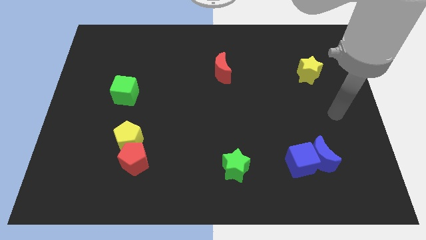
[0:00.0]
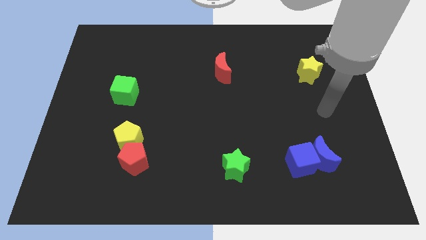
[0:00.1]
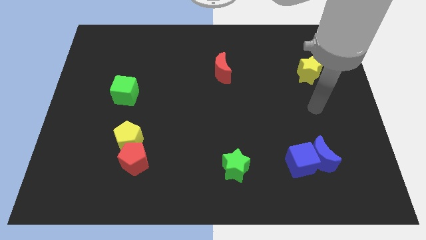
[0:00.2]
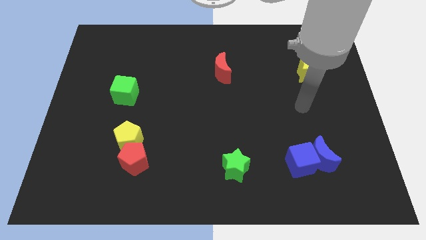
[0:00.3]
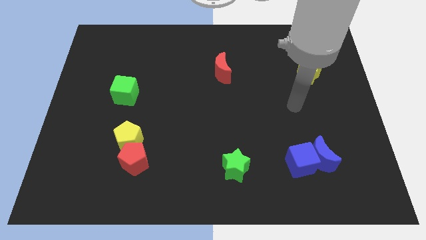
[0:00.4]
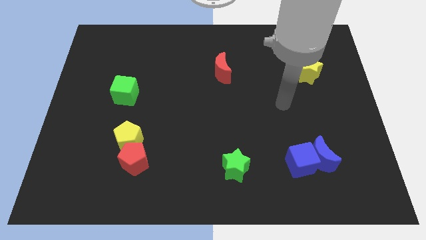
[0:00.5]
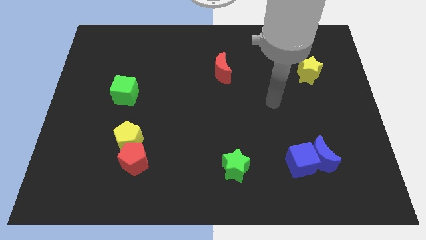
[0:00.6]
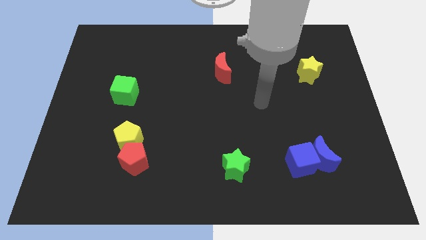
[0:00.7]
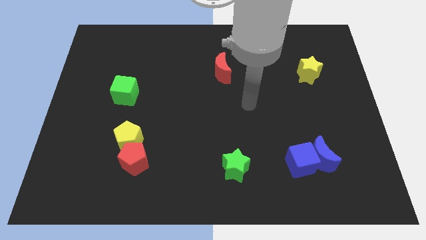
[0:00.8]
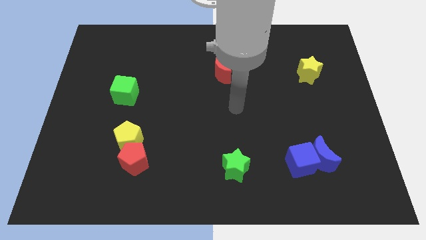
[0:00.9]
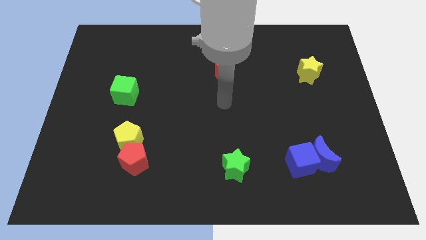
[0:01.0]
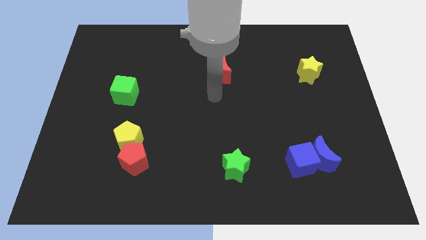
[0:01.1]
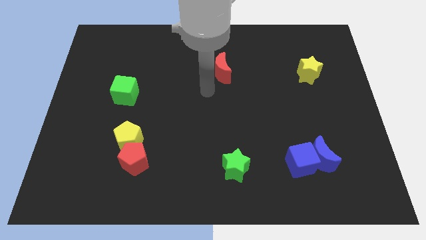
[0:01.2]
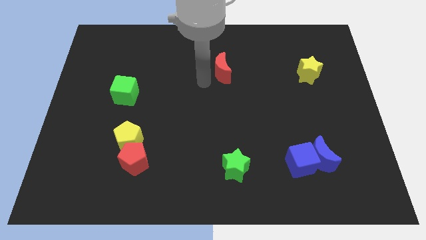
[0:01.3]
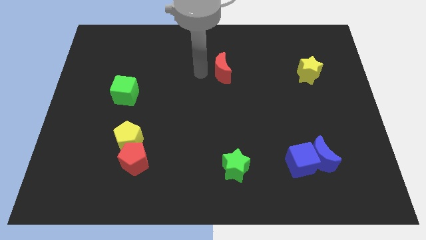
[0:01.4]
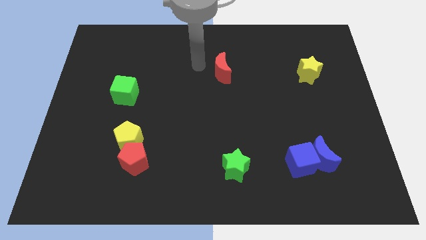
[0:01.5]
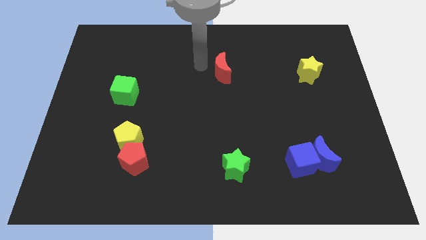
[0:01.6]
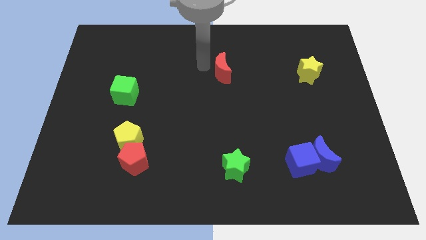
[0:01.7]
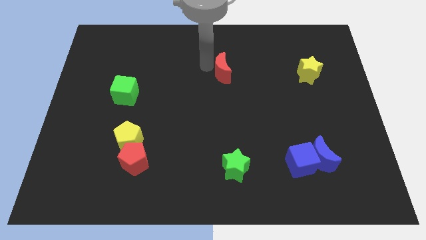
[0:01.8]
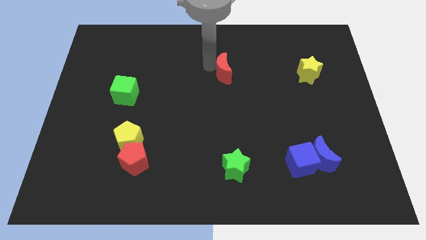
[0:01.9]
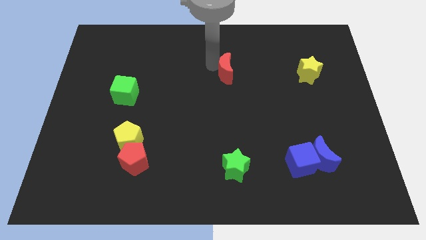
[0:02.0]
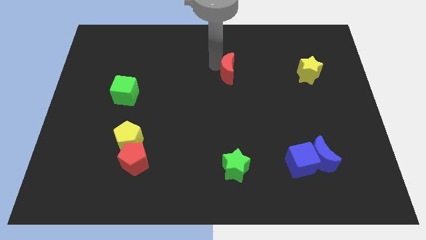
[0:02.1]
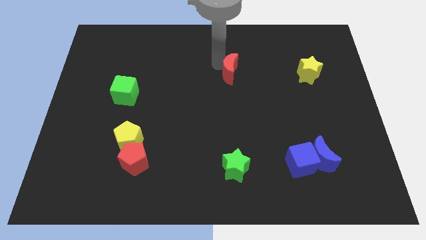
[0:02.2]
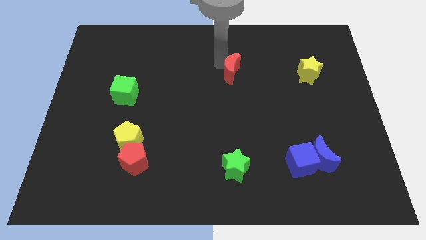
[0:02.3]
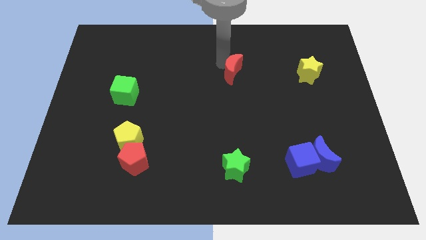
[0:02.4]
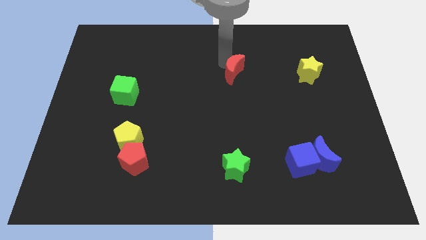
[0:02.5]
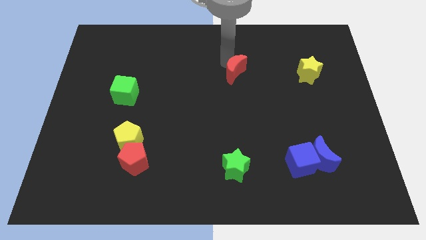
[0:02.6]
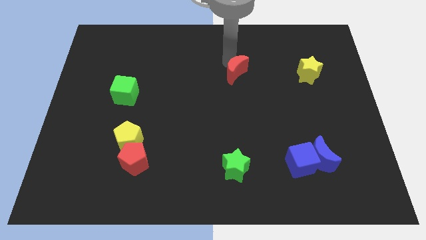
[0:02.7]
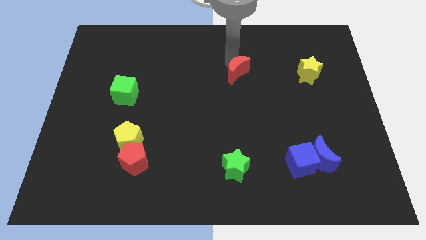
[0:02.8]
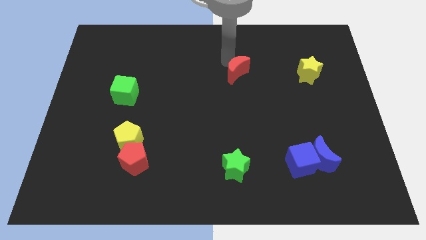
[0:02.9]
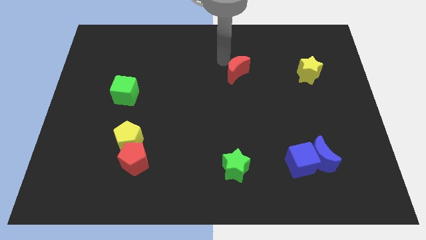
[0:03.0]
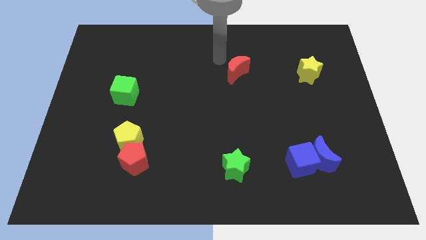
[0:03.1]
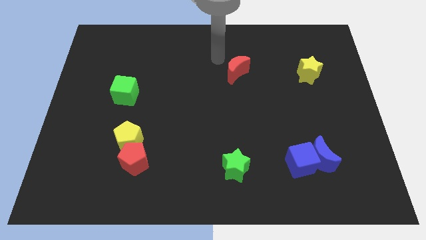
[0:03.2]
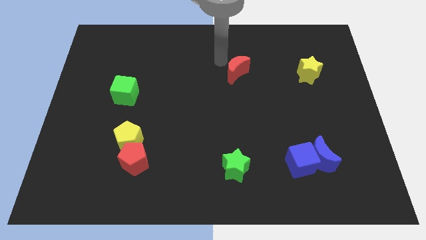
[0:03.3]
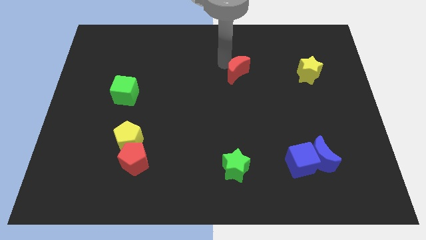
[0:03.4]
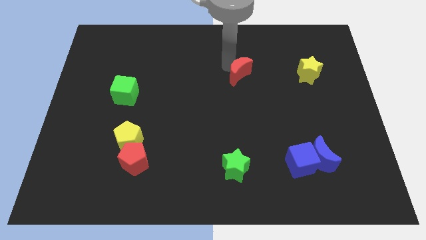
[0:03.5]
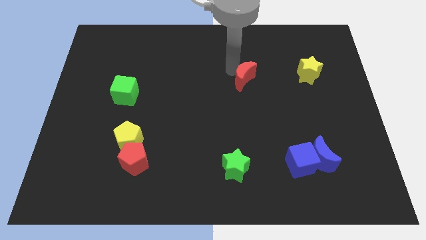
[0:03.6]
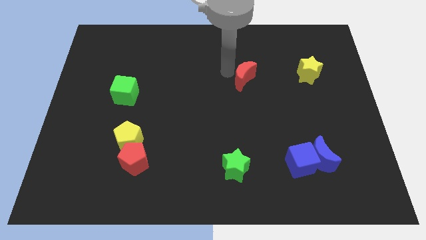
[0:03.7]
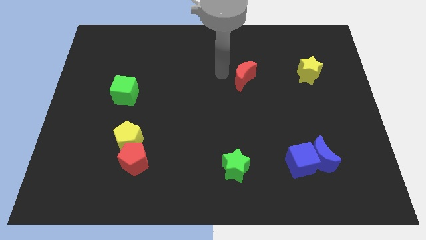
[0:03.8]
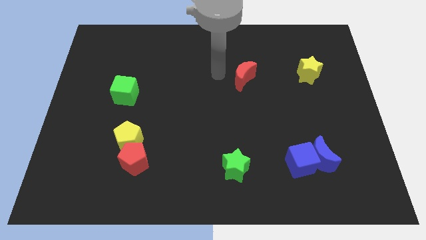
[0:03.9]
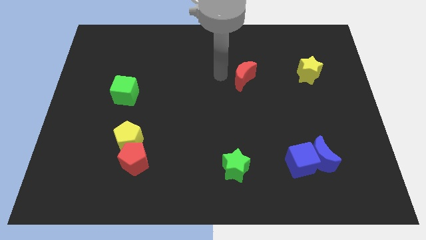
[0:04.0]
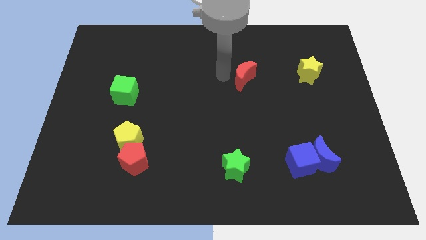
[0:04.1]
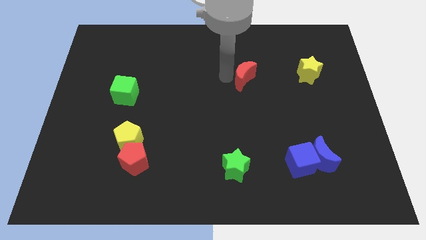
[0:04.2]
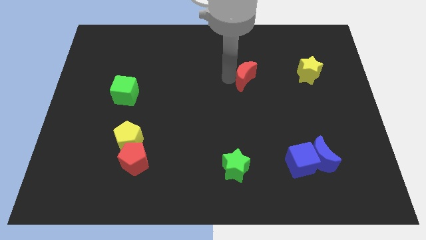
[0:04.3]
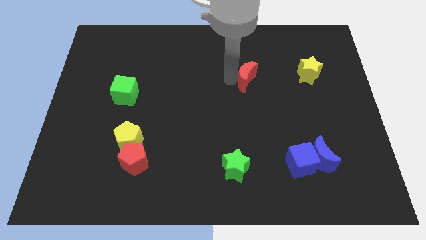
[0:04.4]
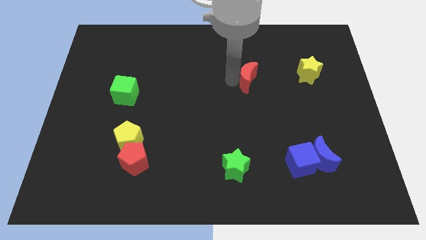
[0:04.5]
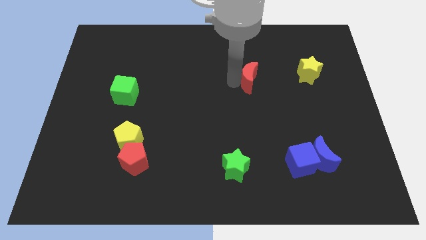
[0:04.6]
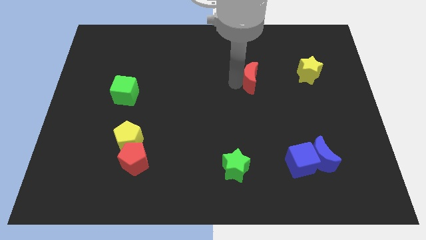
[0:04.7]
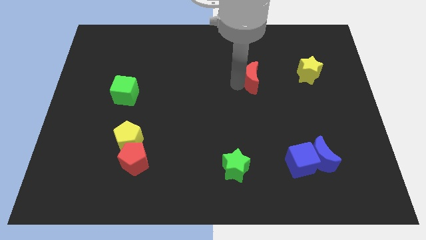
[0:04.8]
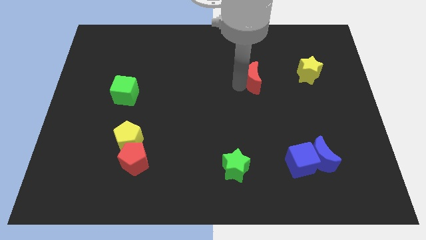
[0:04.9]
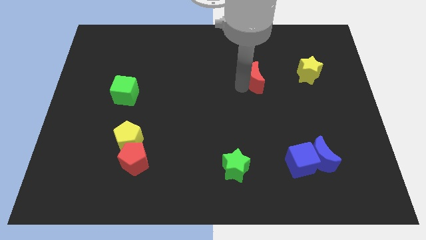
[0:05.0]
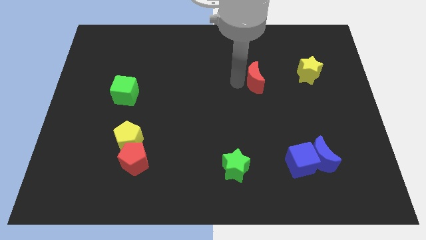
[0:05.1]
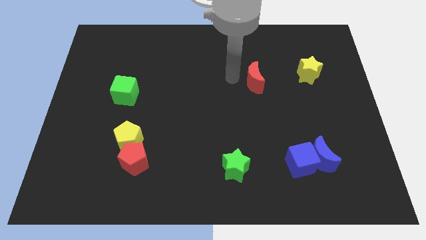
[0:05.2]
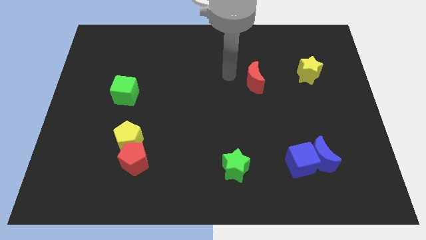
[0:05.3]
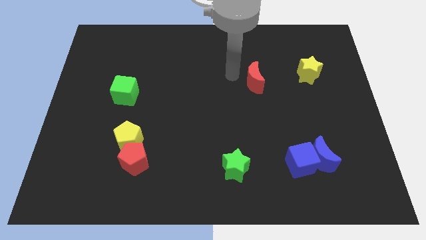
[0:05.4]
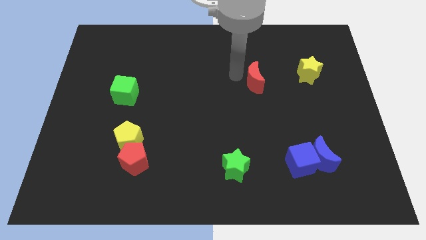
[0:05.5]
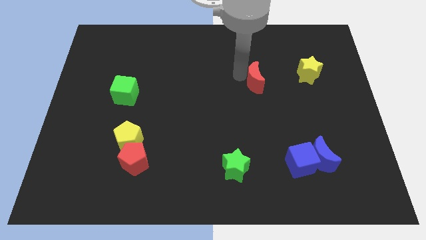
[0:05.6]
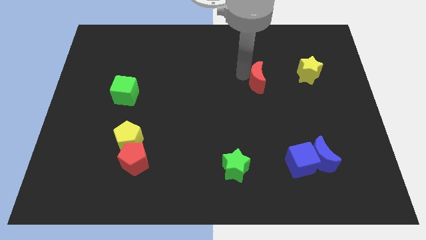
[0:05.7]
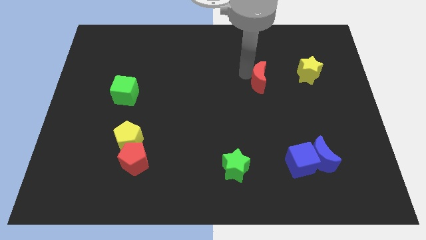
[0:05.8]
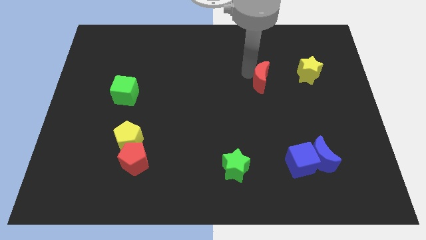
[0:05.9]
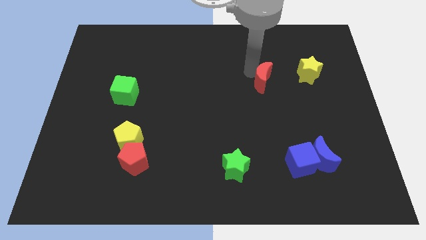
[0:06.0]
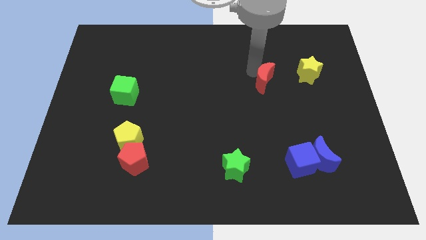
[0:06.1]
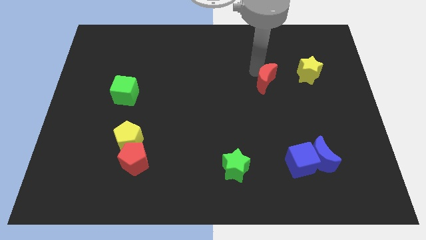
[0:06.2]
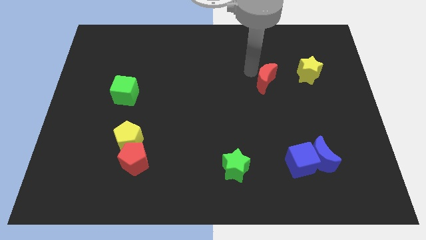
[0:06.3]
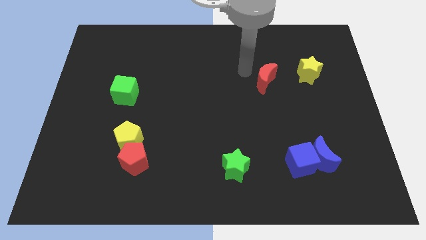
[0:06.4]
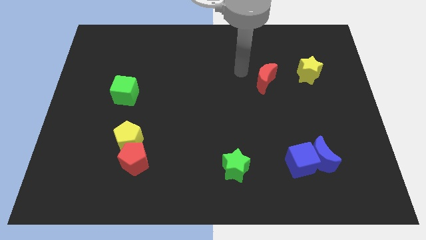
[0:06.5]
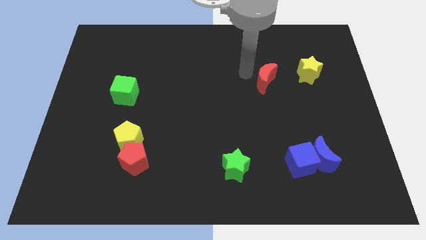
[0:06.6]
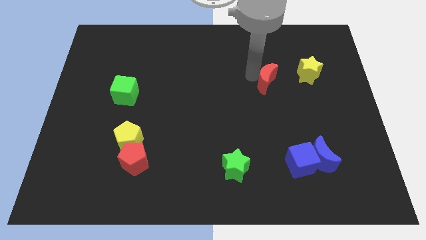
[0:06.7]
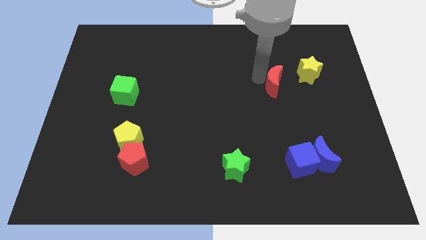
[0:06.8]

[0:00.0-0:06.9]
move the red moon diagonally down and to the left of the yellow star
